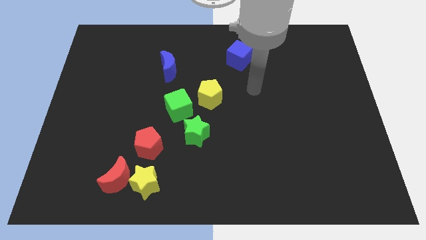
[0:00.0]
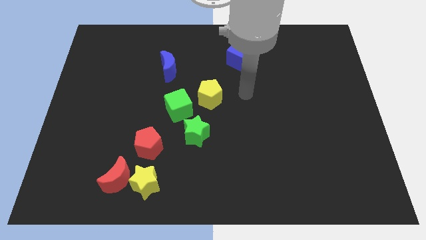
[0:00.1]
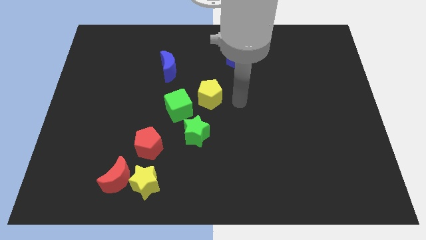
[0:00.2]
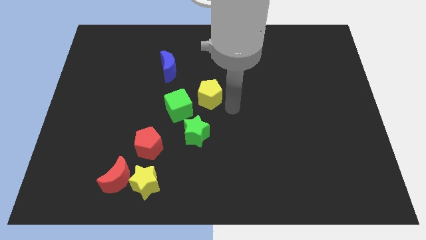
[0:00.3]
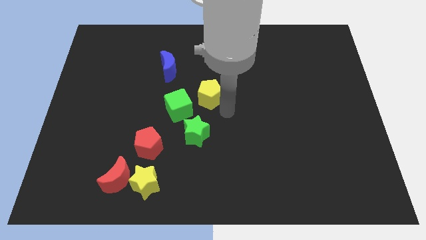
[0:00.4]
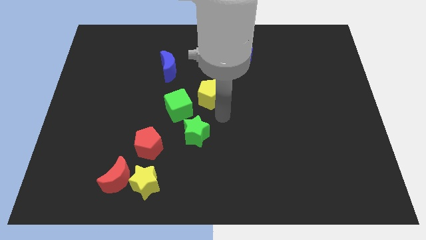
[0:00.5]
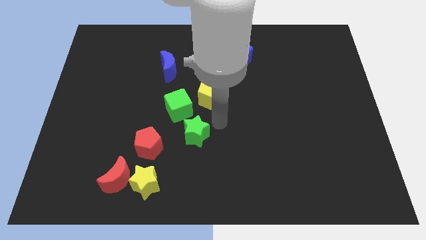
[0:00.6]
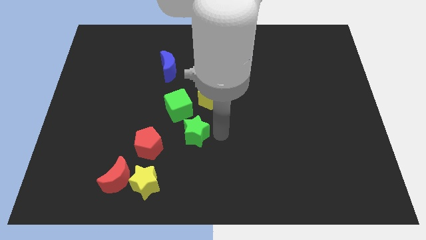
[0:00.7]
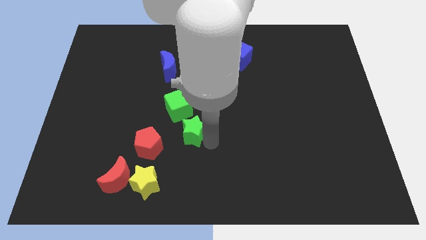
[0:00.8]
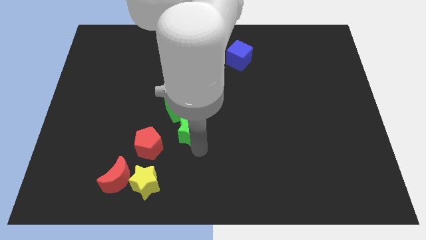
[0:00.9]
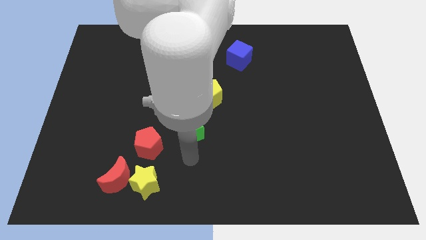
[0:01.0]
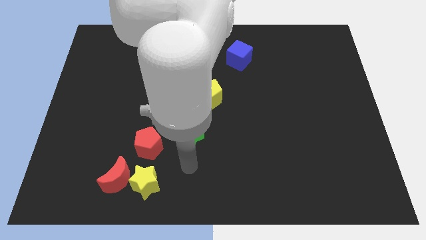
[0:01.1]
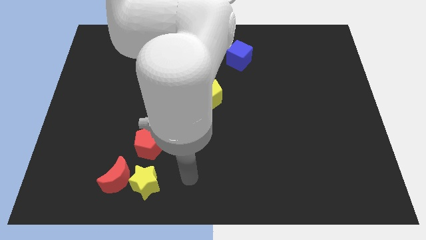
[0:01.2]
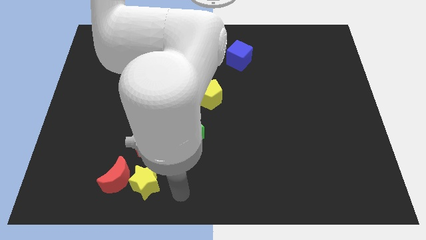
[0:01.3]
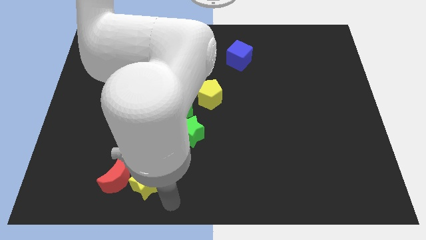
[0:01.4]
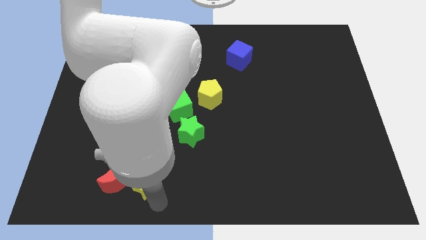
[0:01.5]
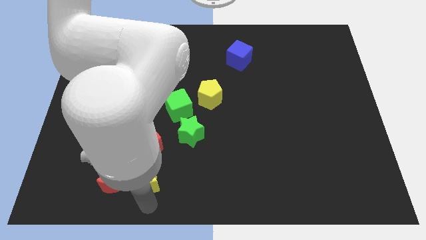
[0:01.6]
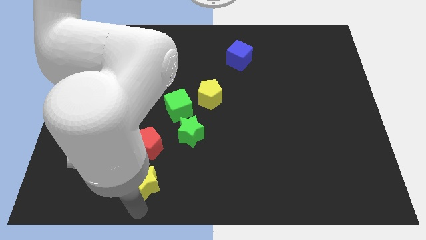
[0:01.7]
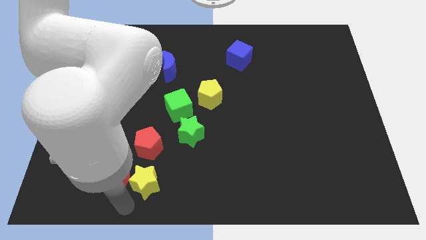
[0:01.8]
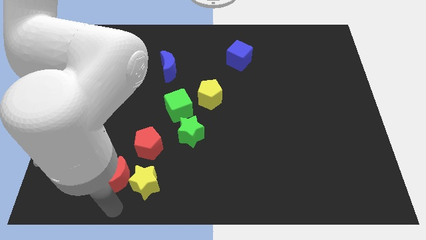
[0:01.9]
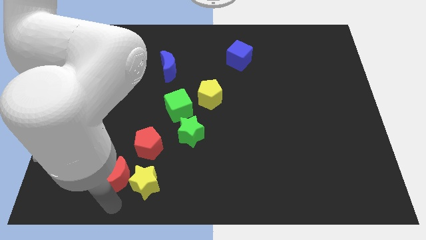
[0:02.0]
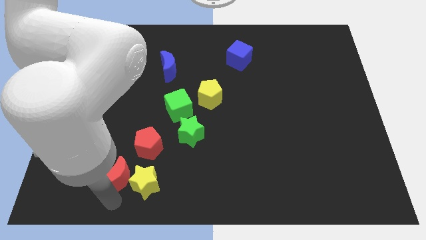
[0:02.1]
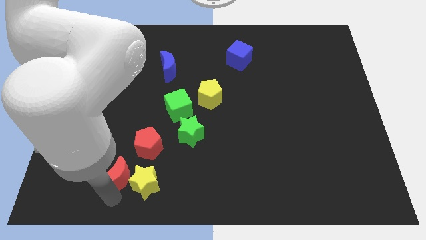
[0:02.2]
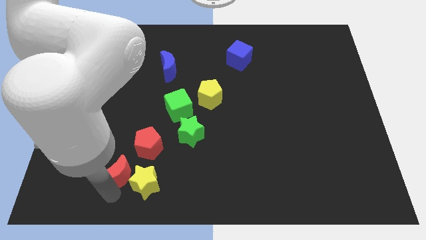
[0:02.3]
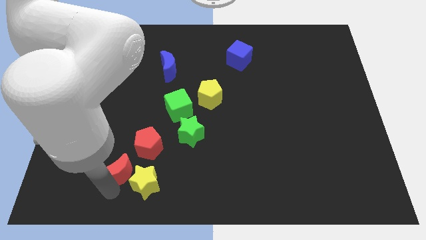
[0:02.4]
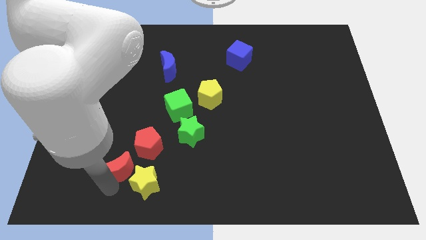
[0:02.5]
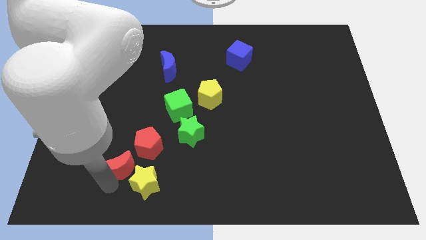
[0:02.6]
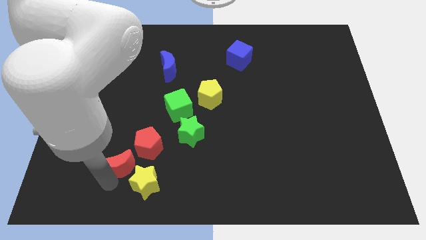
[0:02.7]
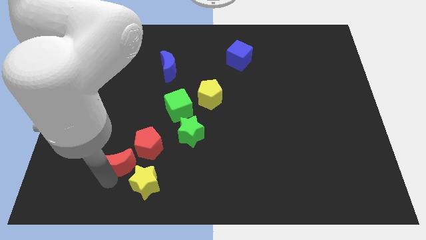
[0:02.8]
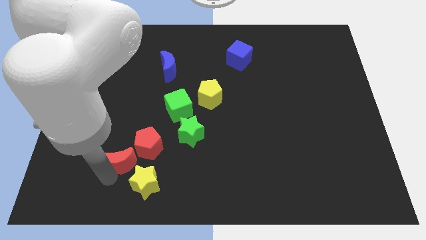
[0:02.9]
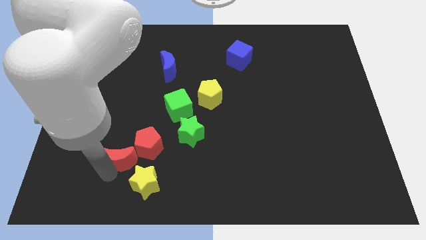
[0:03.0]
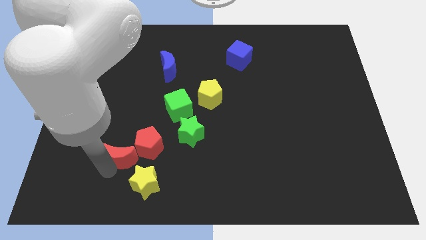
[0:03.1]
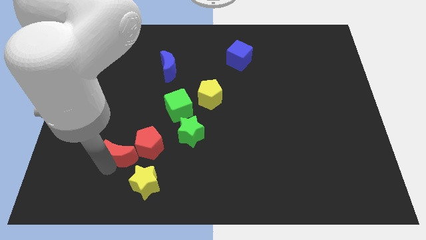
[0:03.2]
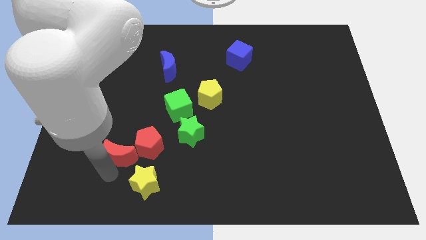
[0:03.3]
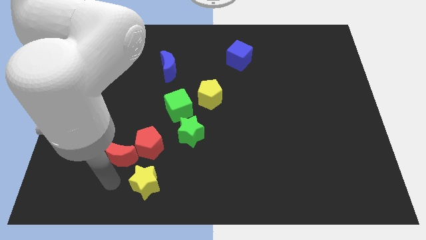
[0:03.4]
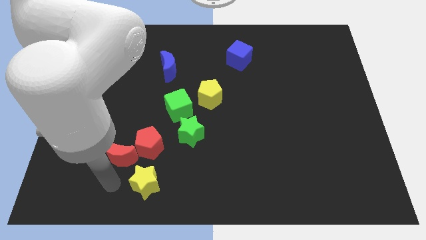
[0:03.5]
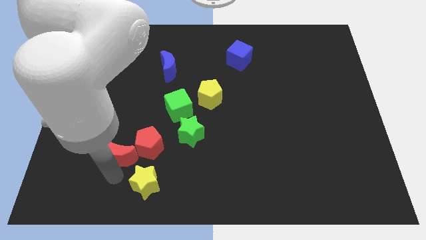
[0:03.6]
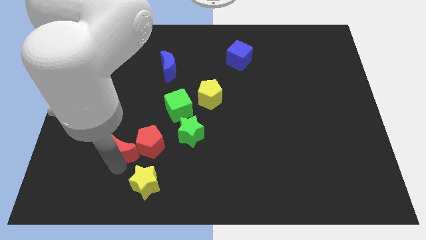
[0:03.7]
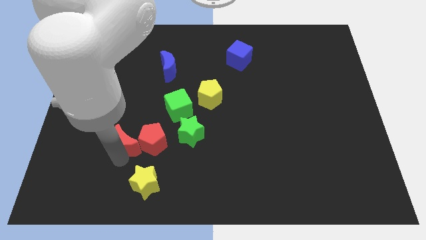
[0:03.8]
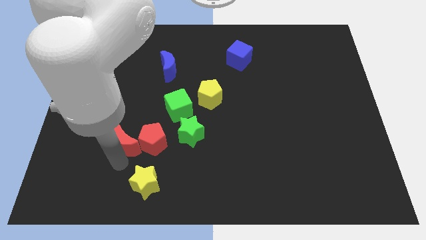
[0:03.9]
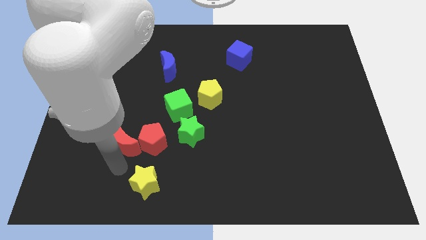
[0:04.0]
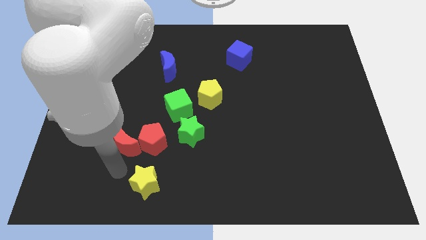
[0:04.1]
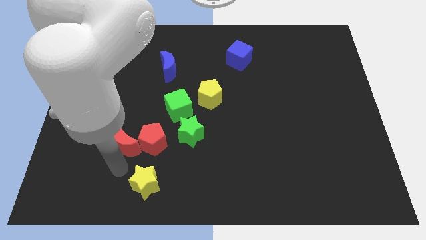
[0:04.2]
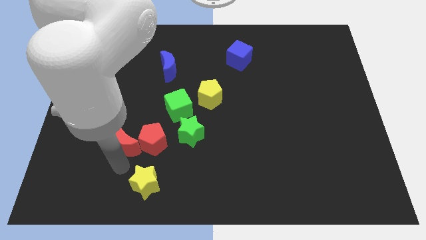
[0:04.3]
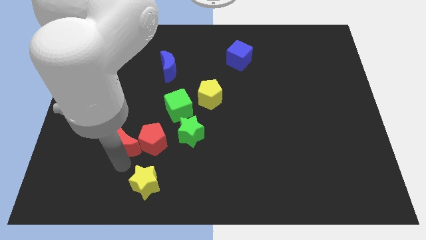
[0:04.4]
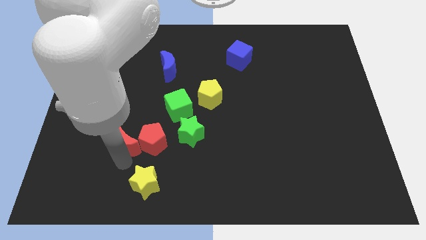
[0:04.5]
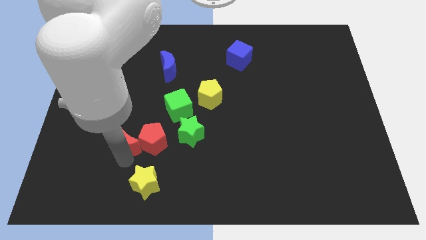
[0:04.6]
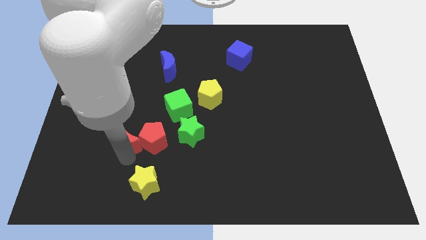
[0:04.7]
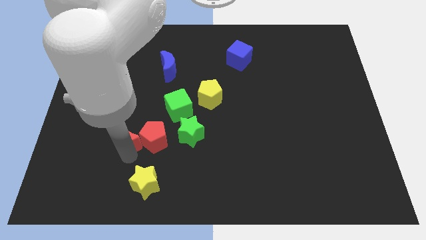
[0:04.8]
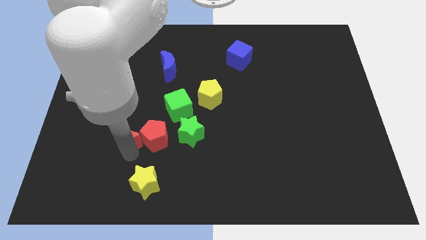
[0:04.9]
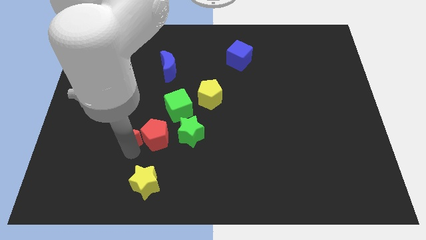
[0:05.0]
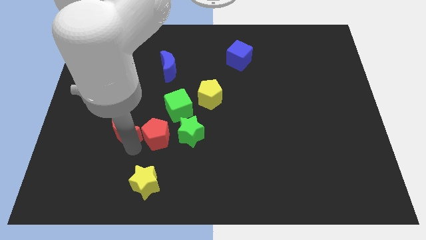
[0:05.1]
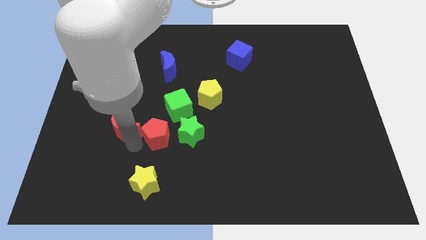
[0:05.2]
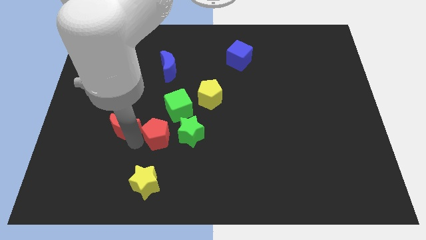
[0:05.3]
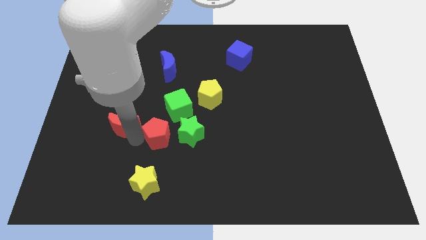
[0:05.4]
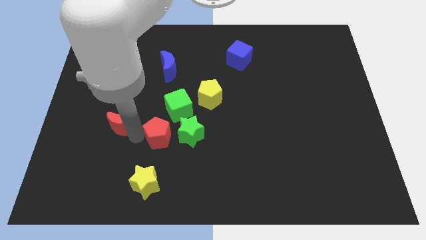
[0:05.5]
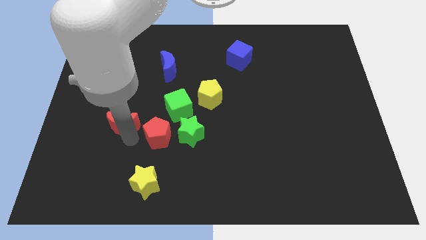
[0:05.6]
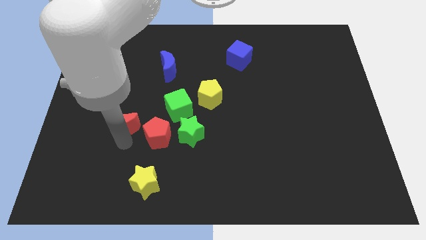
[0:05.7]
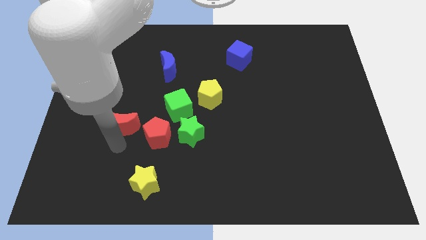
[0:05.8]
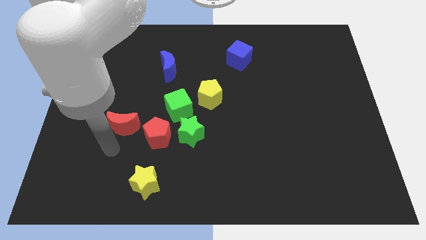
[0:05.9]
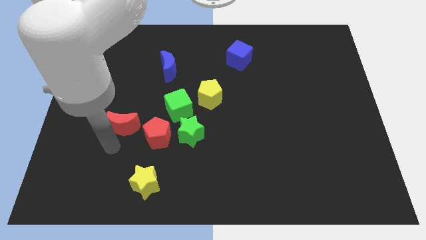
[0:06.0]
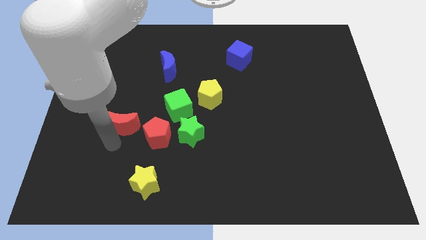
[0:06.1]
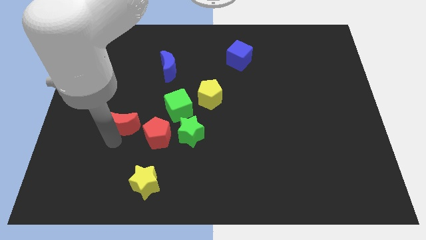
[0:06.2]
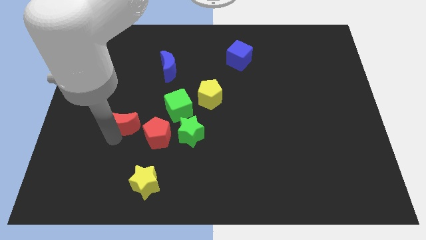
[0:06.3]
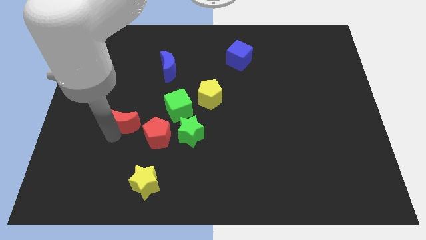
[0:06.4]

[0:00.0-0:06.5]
move the red moon to the left of the green cube

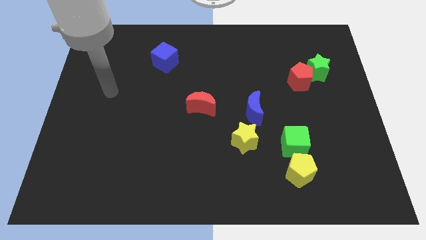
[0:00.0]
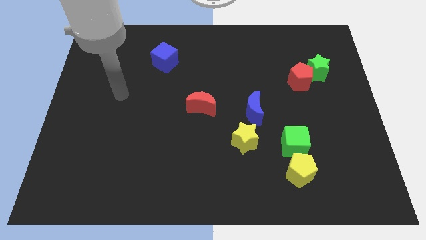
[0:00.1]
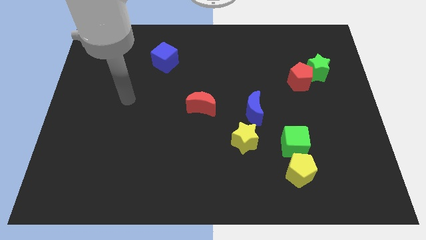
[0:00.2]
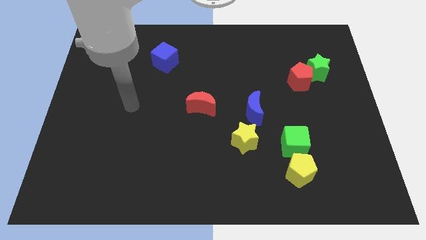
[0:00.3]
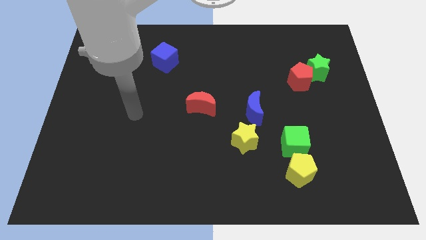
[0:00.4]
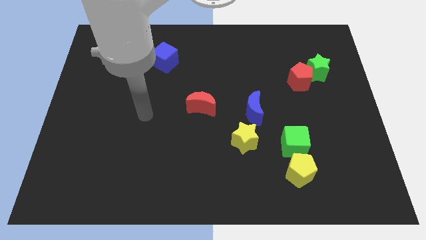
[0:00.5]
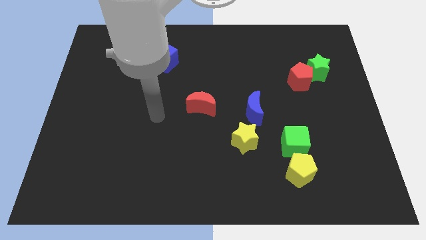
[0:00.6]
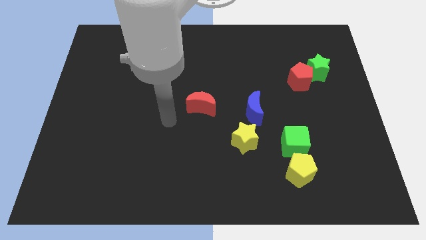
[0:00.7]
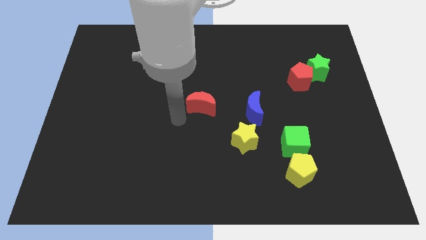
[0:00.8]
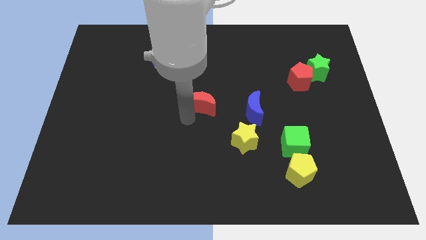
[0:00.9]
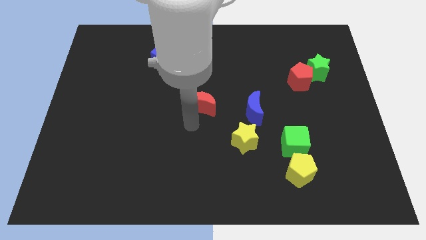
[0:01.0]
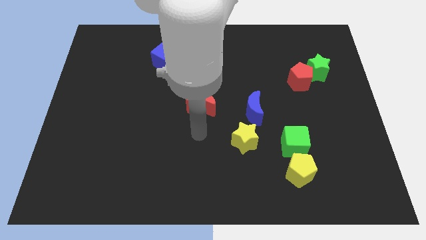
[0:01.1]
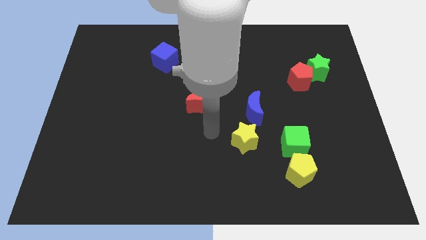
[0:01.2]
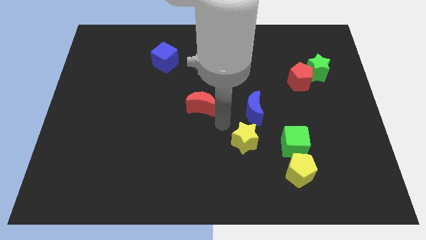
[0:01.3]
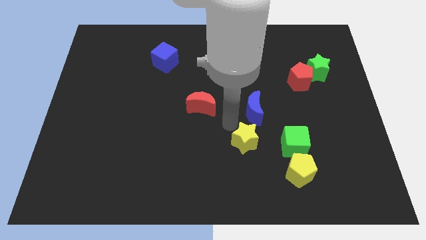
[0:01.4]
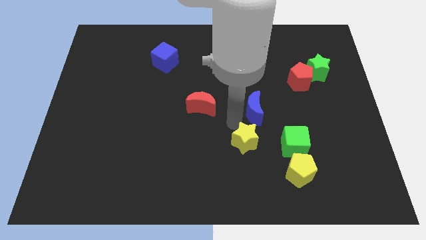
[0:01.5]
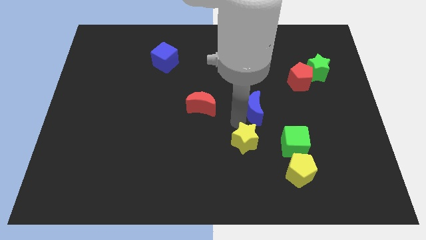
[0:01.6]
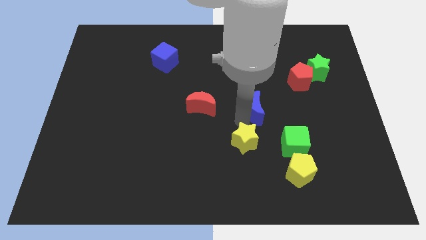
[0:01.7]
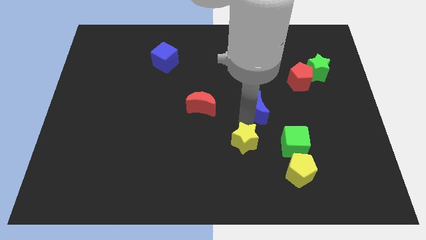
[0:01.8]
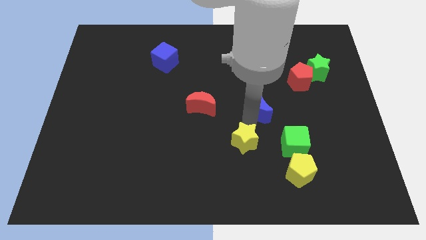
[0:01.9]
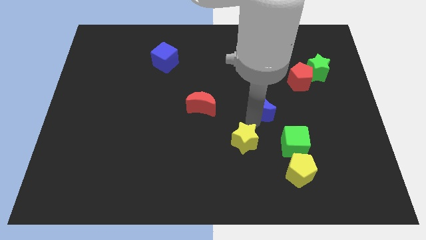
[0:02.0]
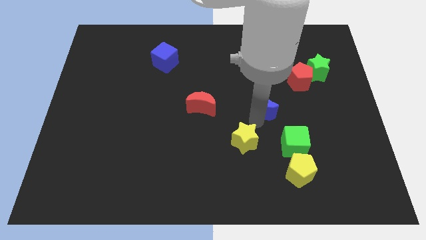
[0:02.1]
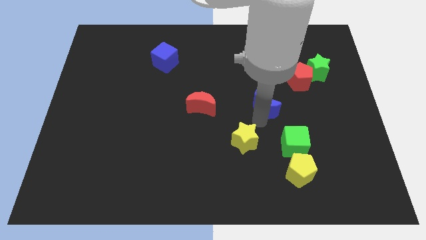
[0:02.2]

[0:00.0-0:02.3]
slide the blue moon diagonally down and to the left of the red pentagon
